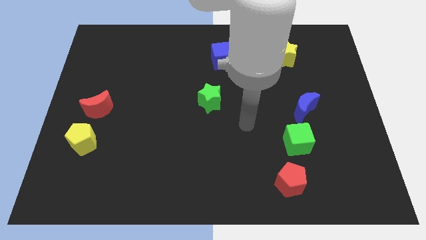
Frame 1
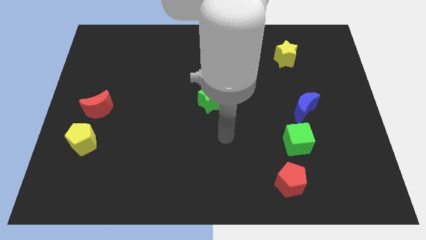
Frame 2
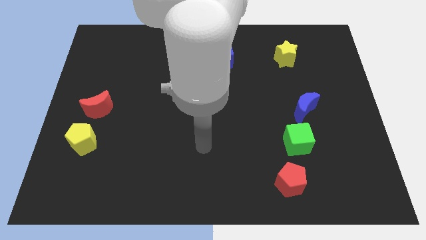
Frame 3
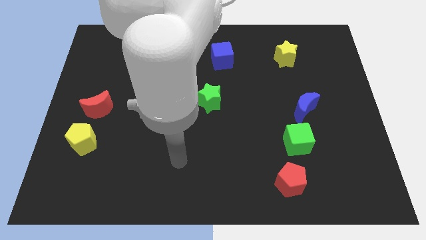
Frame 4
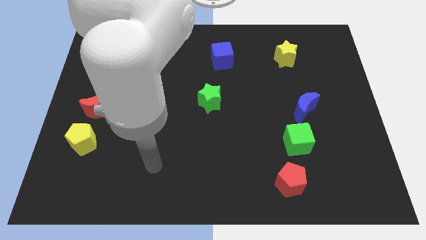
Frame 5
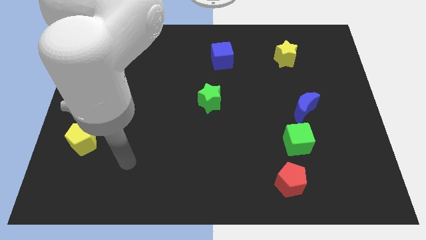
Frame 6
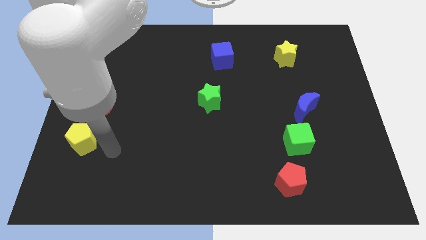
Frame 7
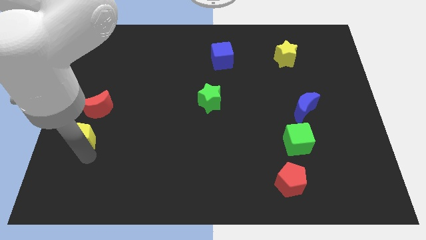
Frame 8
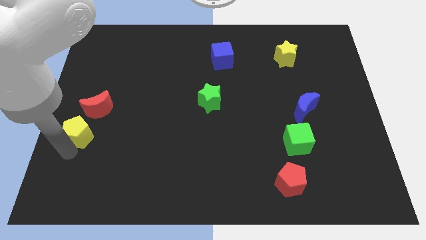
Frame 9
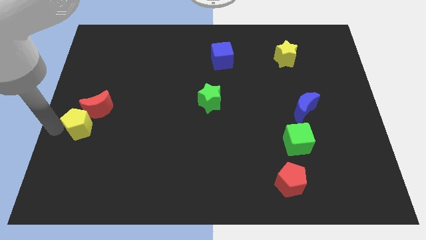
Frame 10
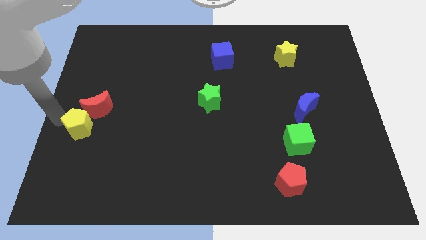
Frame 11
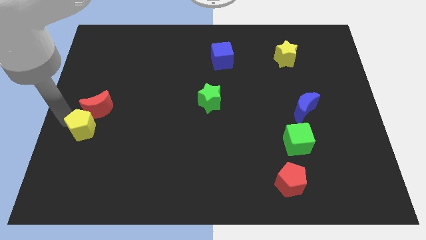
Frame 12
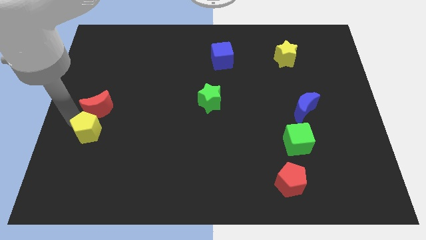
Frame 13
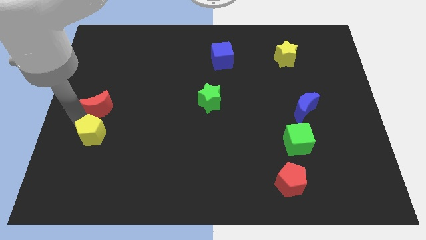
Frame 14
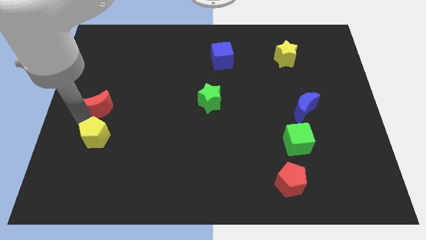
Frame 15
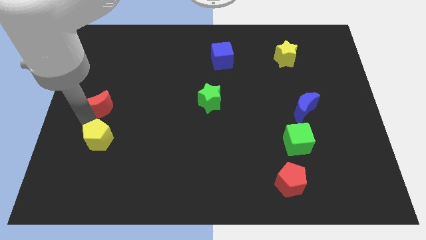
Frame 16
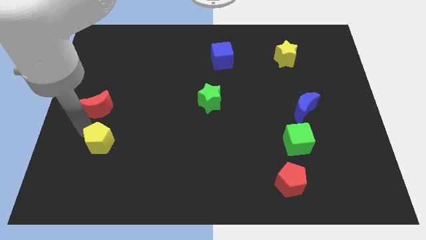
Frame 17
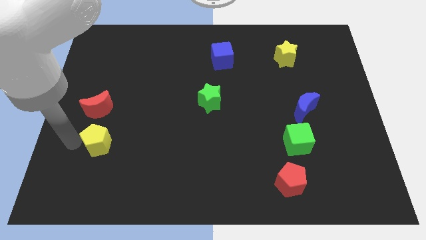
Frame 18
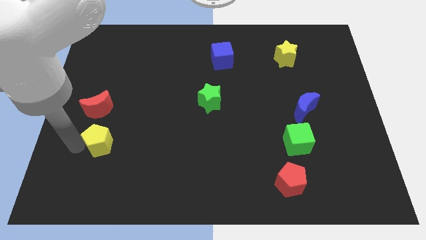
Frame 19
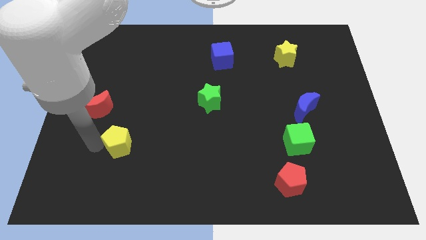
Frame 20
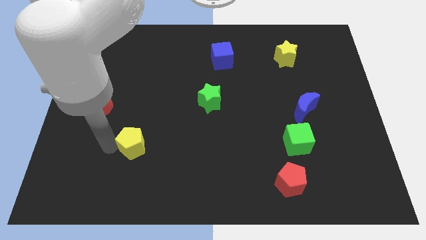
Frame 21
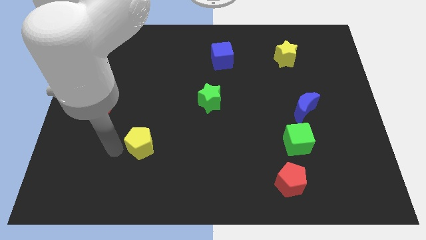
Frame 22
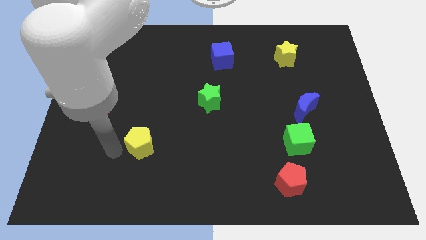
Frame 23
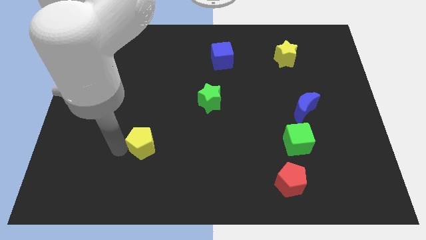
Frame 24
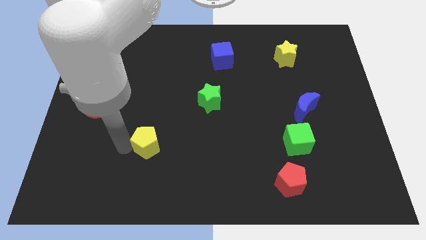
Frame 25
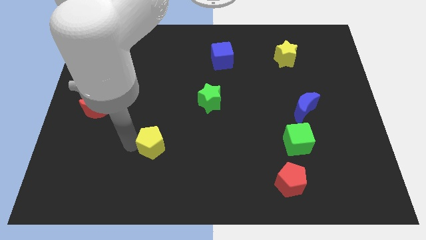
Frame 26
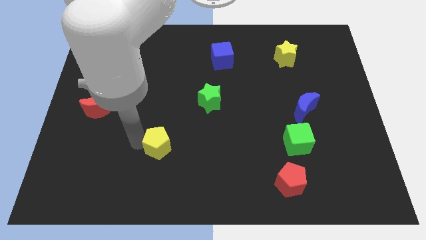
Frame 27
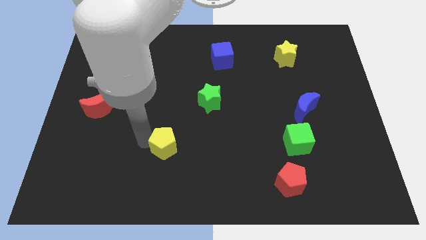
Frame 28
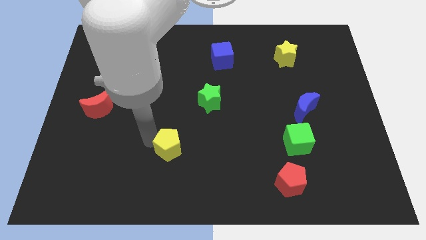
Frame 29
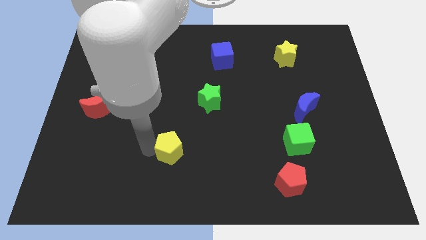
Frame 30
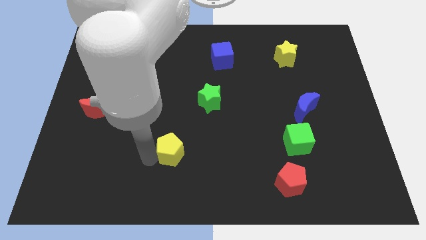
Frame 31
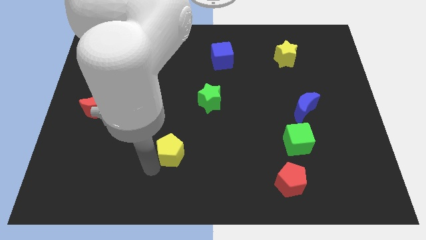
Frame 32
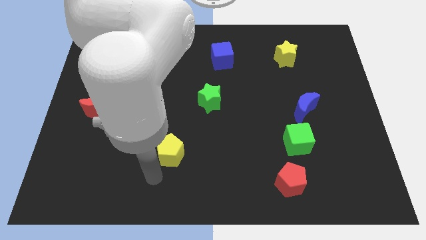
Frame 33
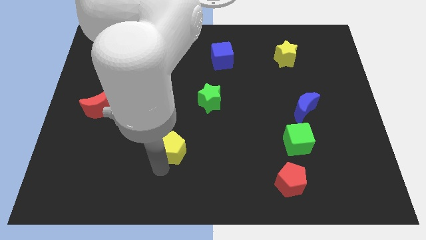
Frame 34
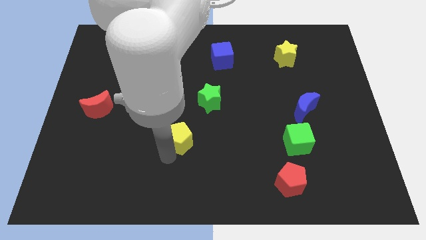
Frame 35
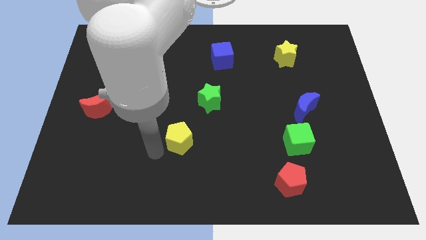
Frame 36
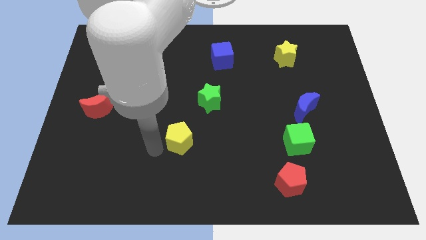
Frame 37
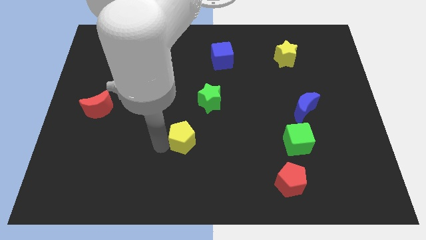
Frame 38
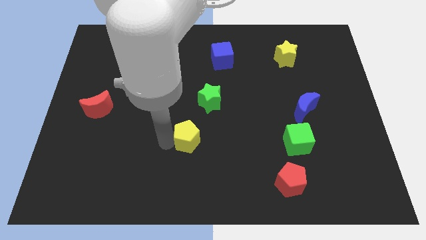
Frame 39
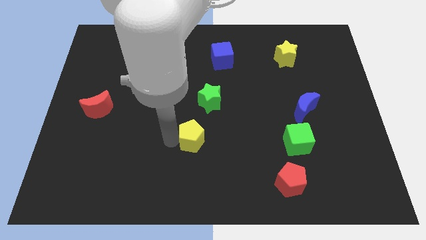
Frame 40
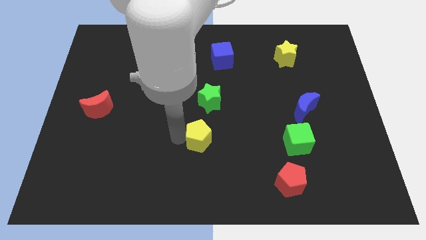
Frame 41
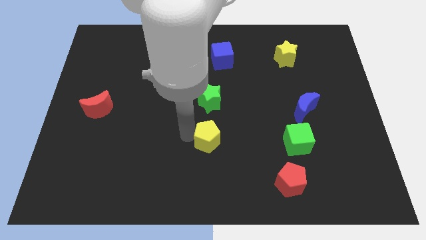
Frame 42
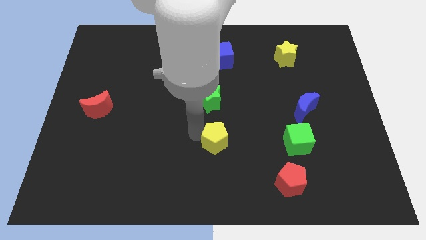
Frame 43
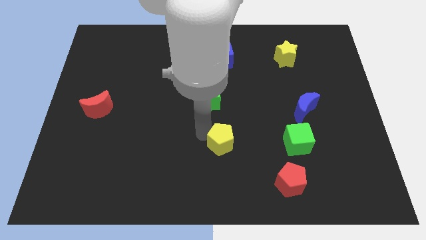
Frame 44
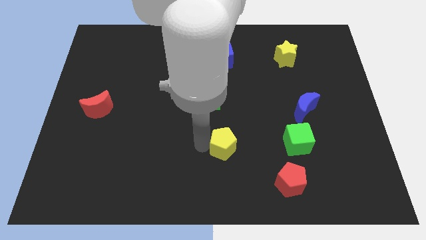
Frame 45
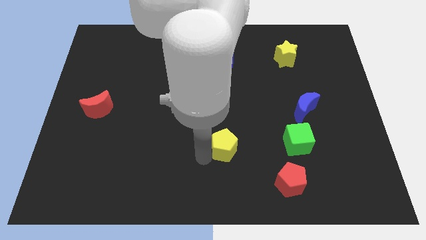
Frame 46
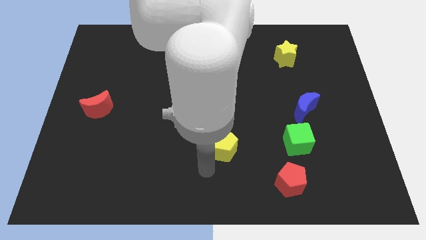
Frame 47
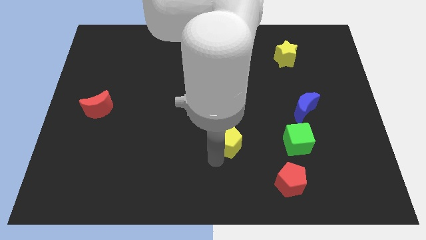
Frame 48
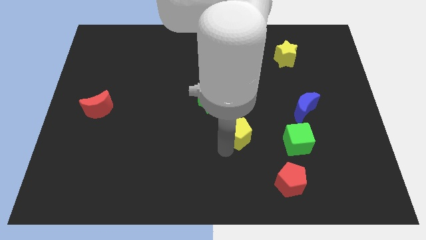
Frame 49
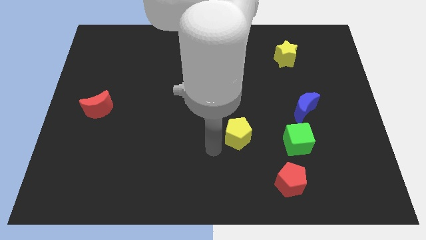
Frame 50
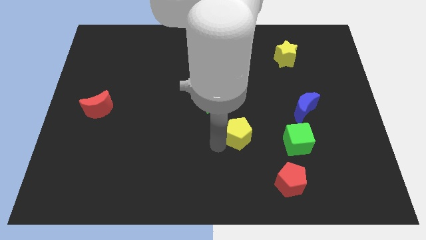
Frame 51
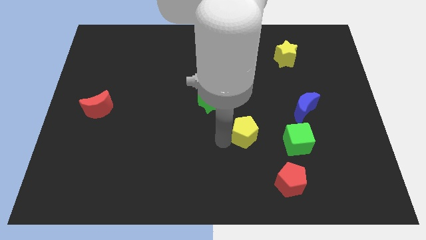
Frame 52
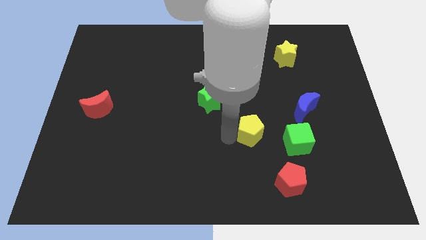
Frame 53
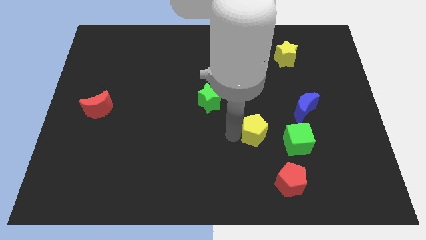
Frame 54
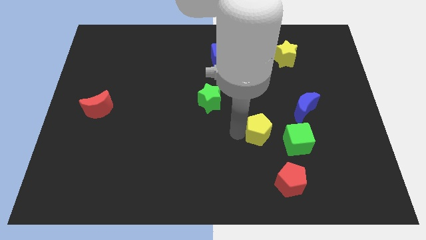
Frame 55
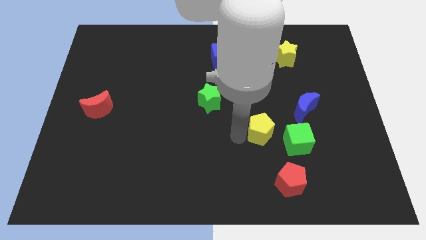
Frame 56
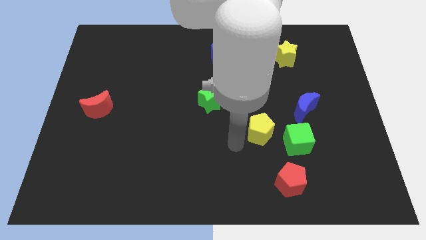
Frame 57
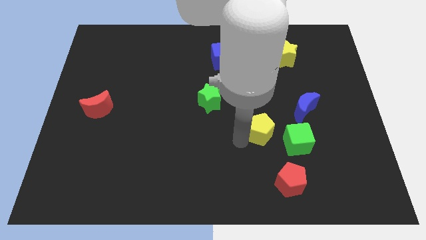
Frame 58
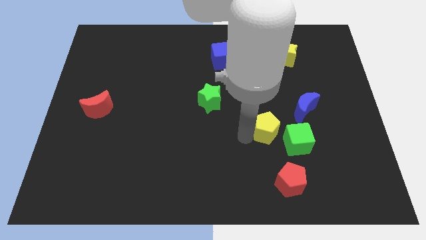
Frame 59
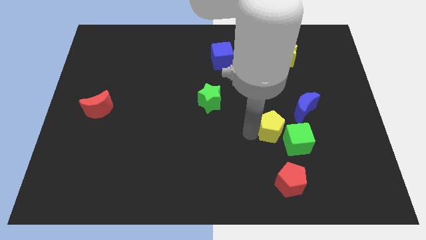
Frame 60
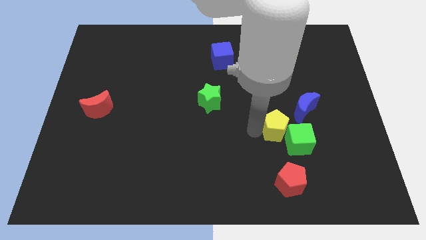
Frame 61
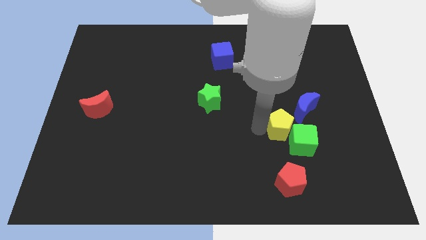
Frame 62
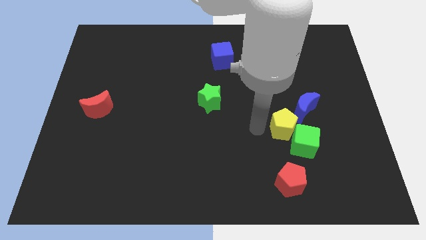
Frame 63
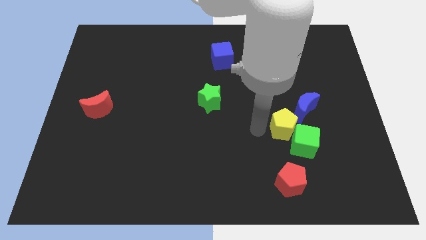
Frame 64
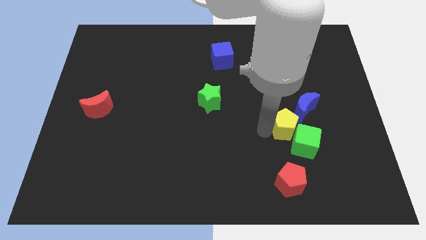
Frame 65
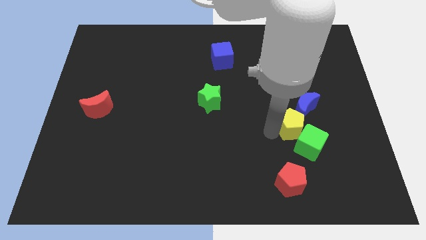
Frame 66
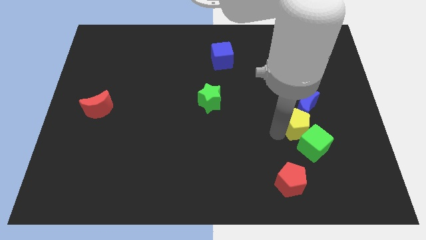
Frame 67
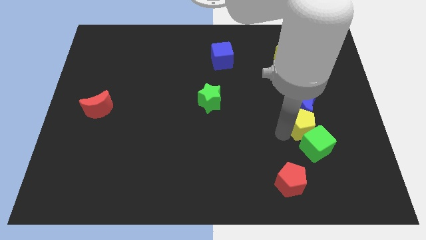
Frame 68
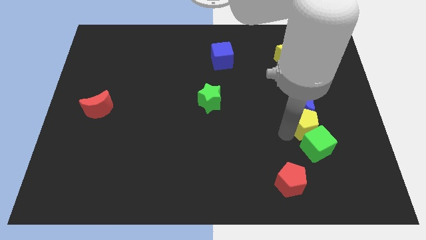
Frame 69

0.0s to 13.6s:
put the yellow pentagon to the bottom right of the blue moon
